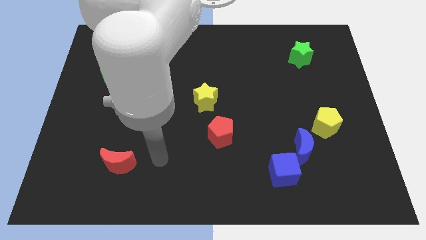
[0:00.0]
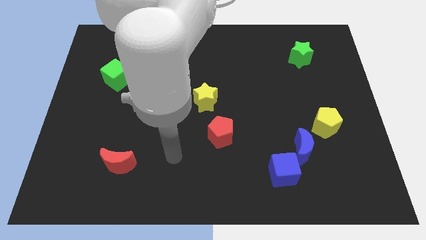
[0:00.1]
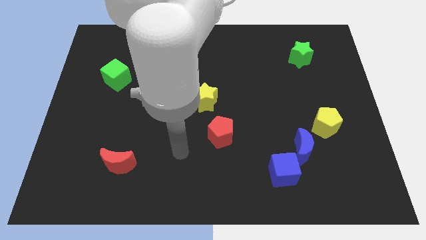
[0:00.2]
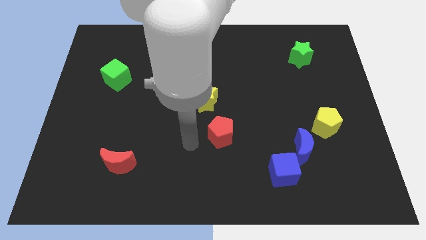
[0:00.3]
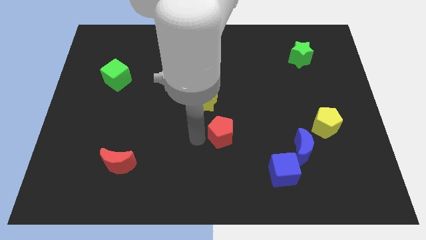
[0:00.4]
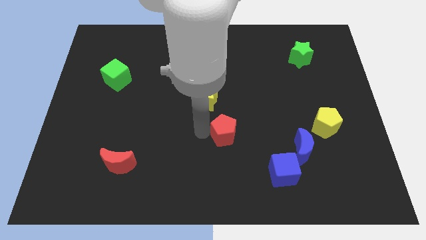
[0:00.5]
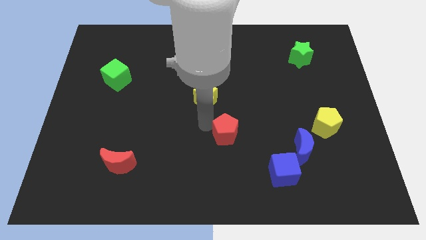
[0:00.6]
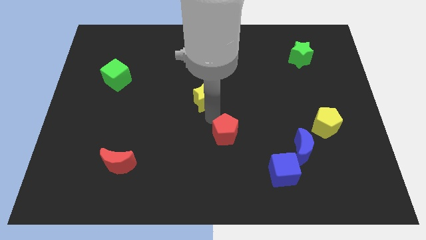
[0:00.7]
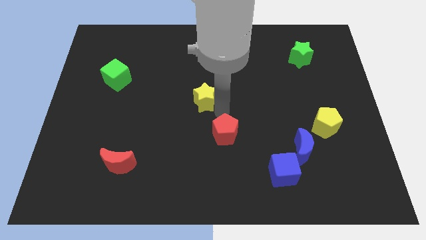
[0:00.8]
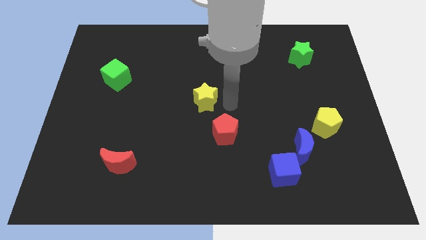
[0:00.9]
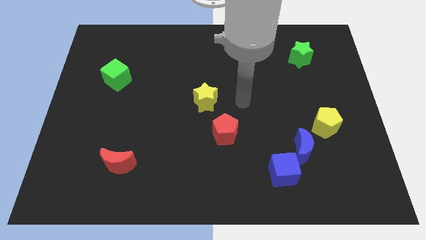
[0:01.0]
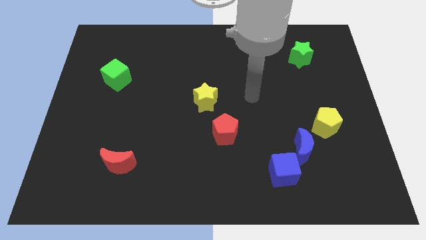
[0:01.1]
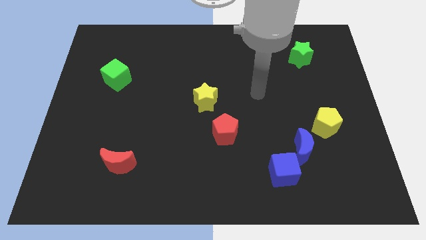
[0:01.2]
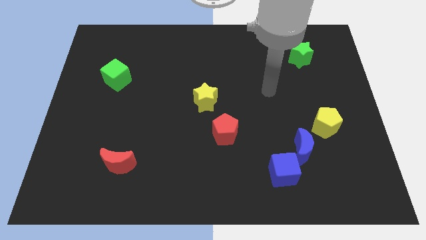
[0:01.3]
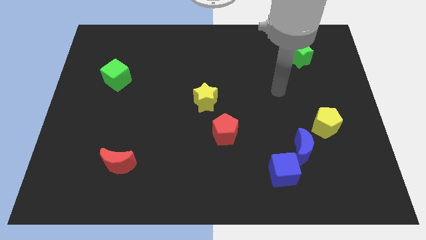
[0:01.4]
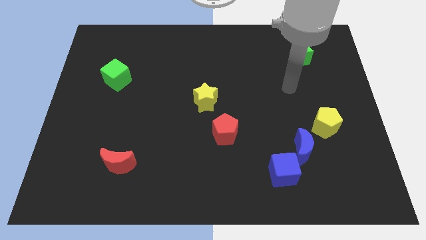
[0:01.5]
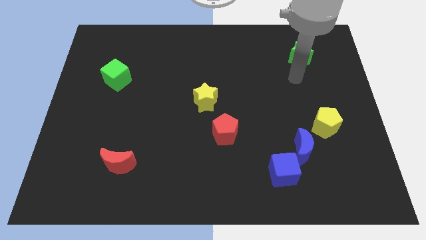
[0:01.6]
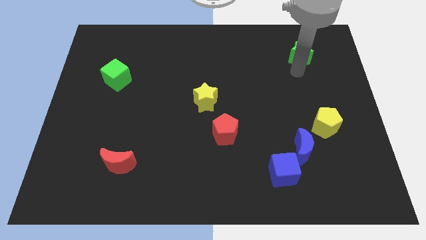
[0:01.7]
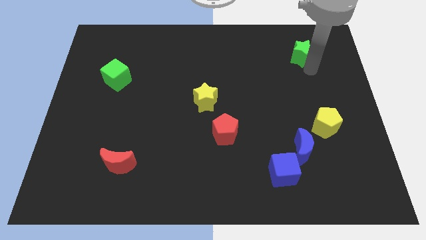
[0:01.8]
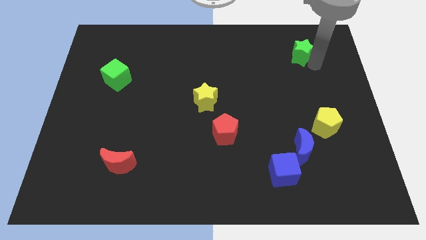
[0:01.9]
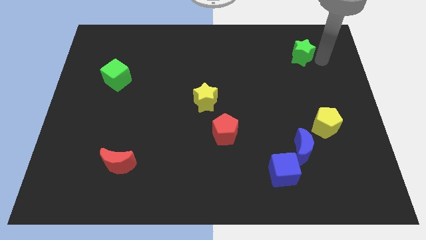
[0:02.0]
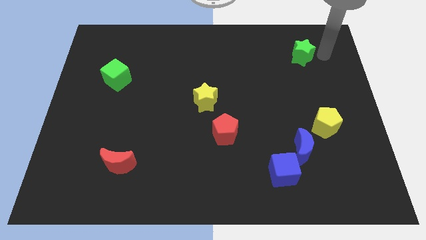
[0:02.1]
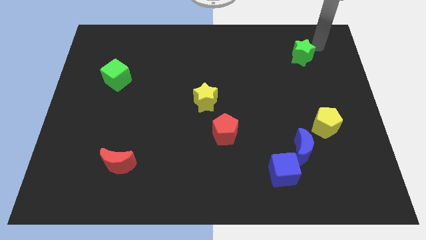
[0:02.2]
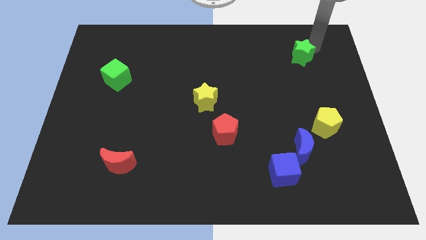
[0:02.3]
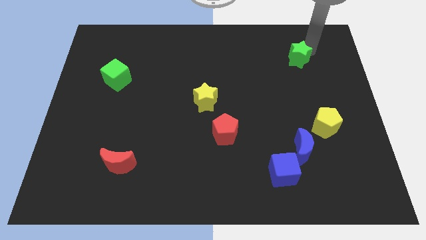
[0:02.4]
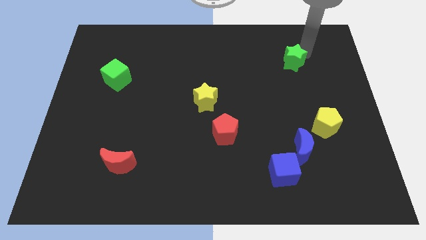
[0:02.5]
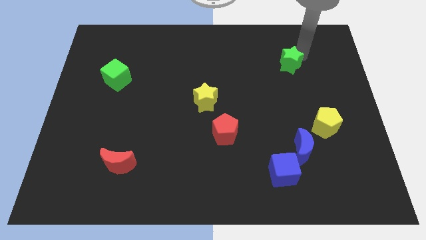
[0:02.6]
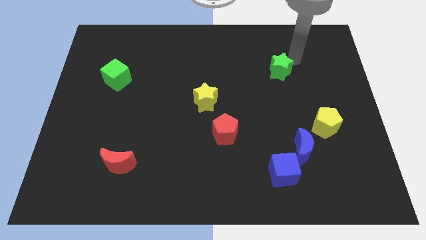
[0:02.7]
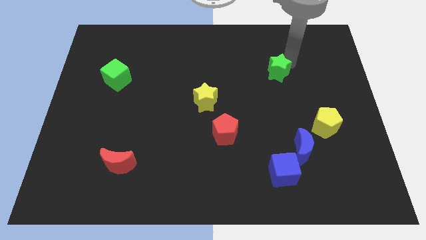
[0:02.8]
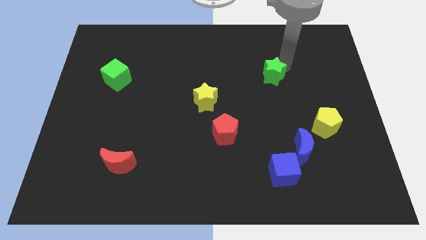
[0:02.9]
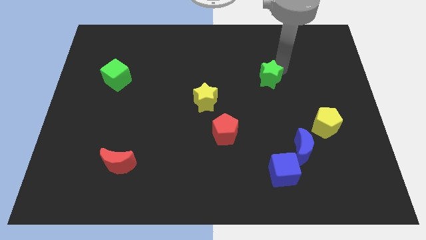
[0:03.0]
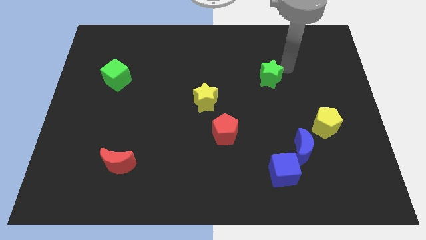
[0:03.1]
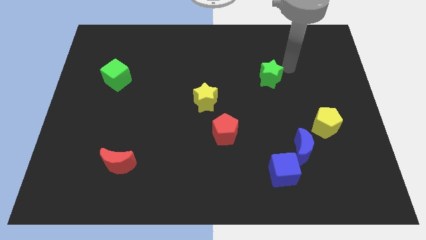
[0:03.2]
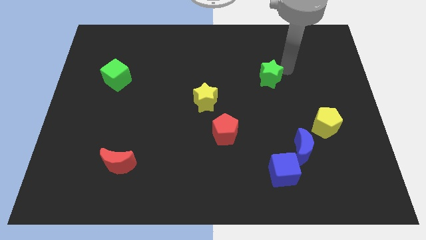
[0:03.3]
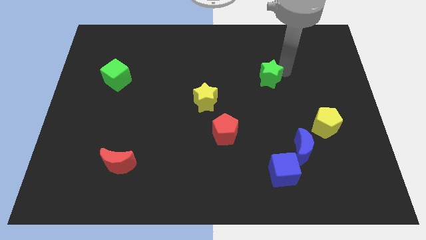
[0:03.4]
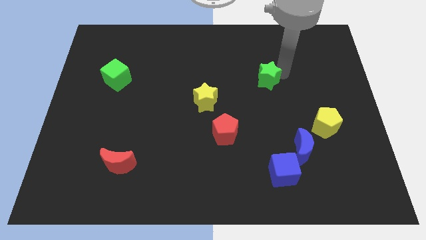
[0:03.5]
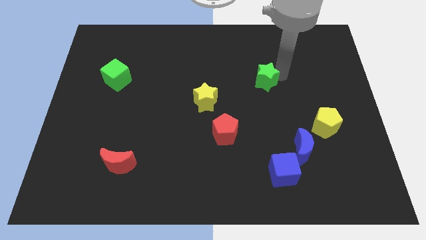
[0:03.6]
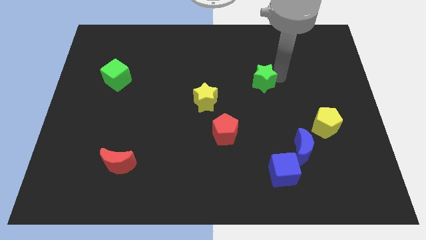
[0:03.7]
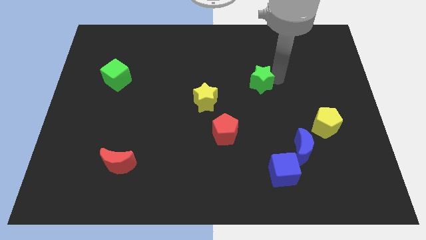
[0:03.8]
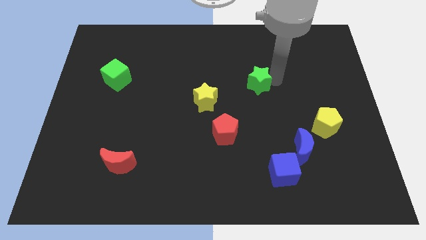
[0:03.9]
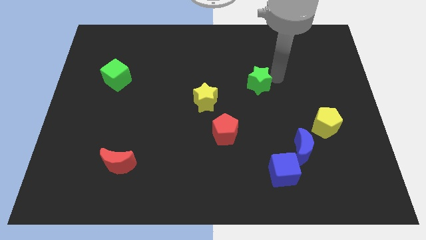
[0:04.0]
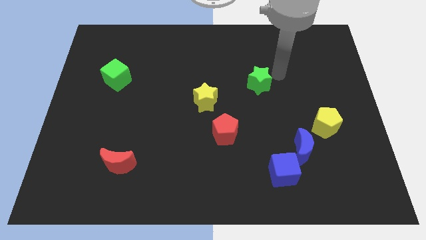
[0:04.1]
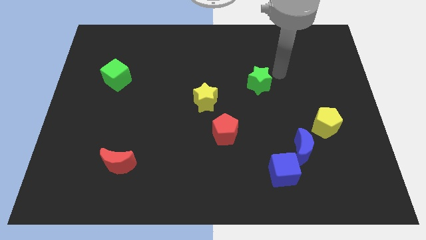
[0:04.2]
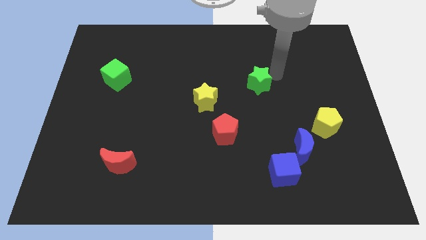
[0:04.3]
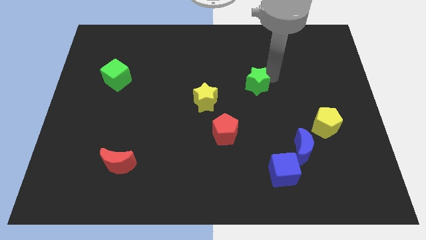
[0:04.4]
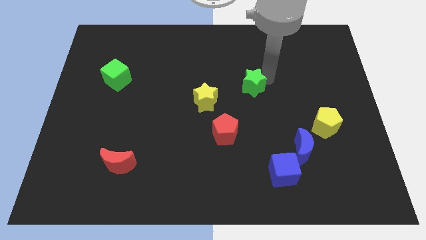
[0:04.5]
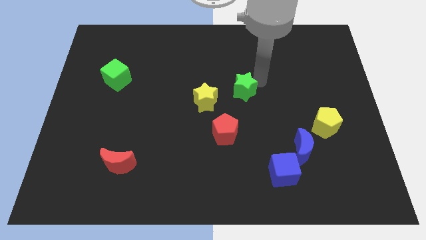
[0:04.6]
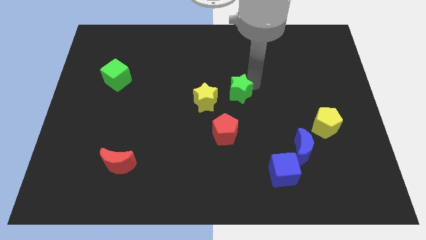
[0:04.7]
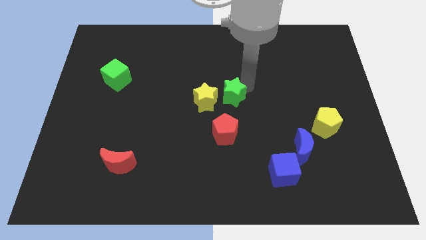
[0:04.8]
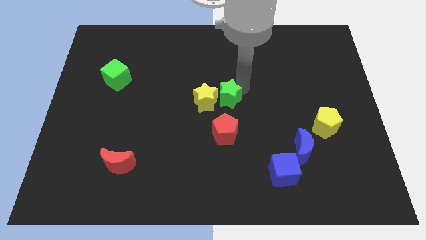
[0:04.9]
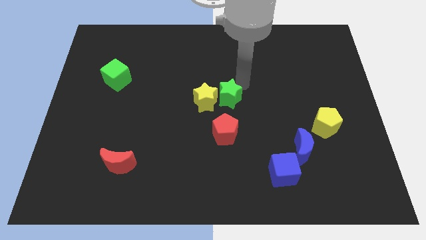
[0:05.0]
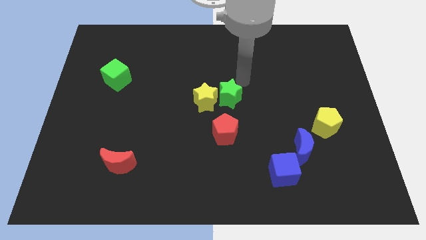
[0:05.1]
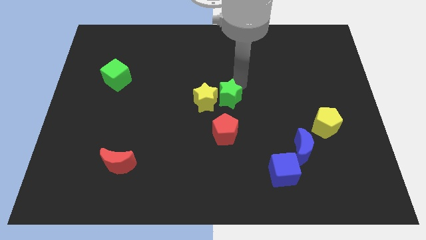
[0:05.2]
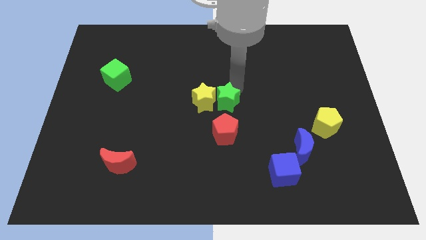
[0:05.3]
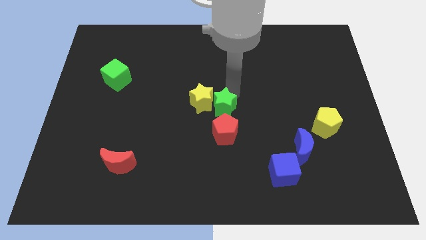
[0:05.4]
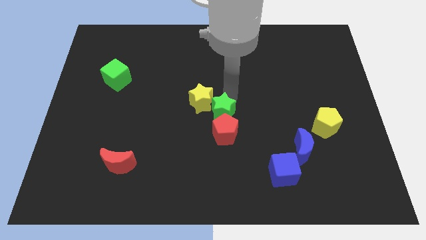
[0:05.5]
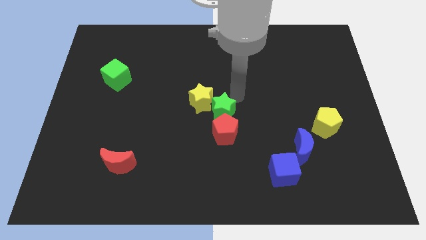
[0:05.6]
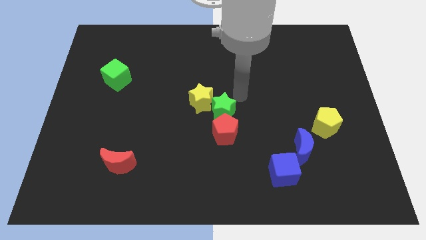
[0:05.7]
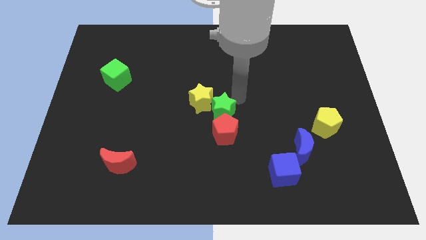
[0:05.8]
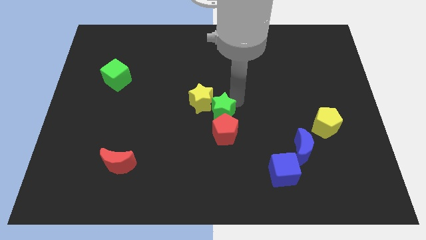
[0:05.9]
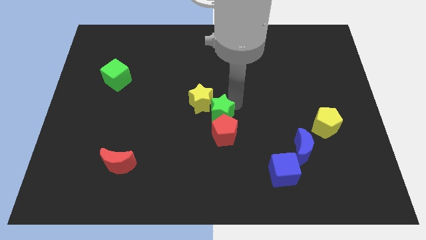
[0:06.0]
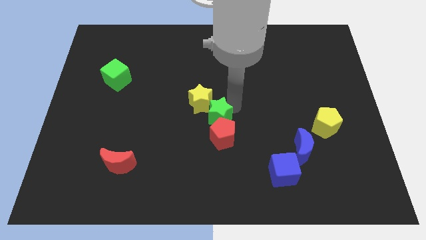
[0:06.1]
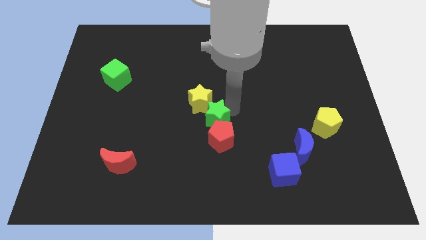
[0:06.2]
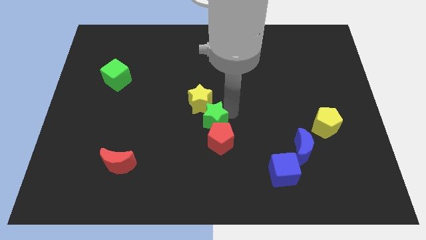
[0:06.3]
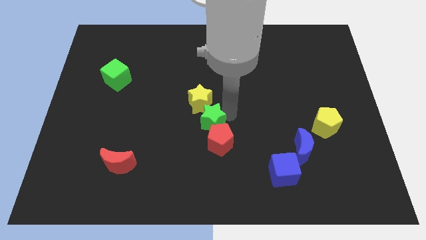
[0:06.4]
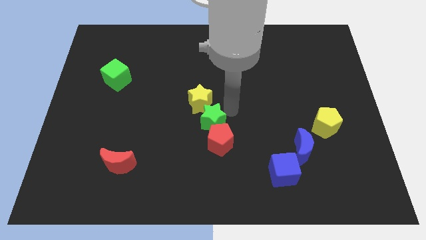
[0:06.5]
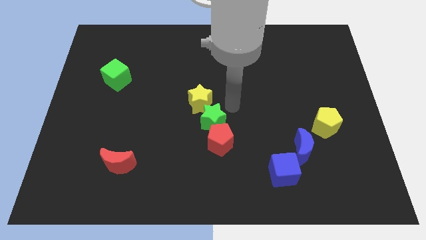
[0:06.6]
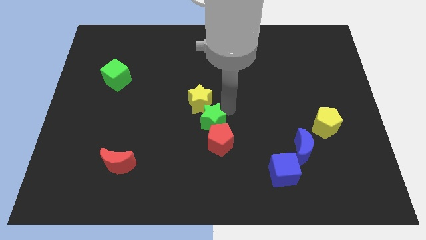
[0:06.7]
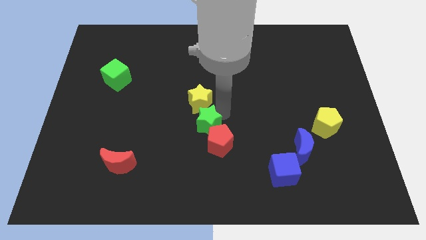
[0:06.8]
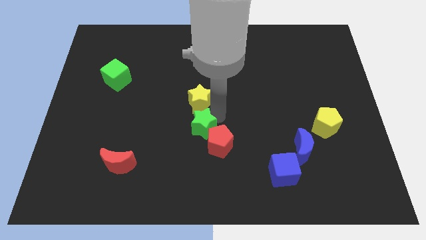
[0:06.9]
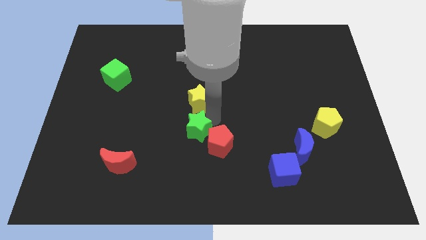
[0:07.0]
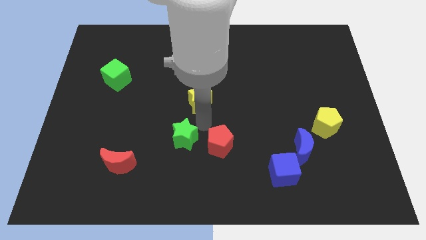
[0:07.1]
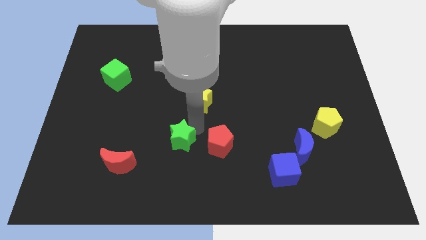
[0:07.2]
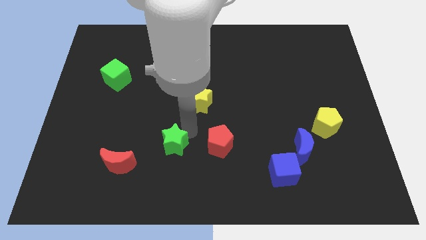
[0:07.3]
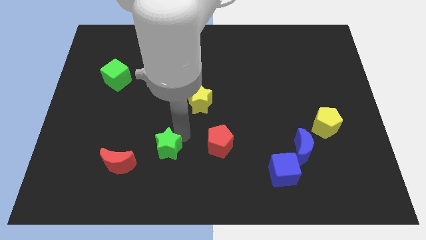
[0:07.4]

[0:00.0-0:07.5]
slide the green star right of the red moon
